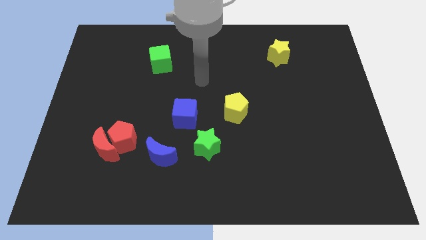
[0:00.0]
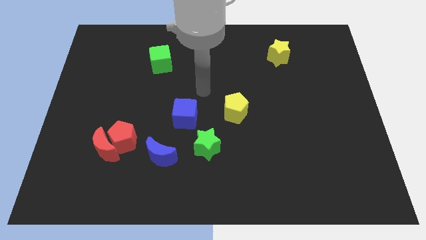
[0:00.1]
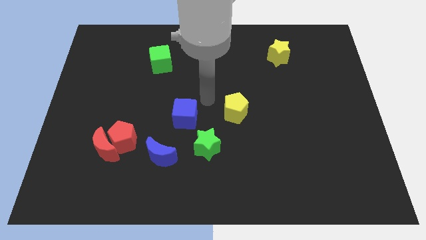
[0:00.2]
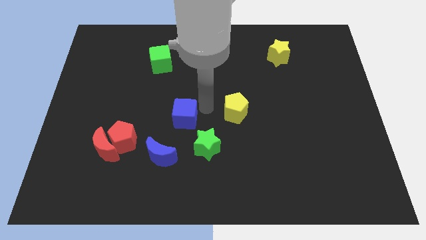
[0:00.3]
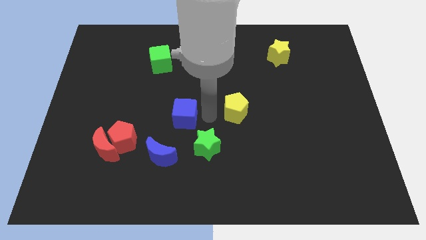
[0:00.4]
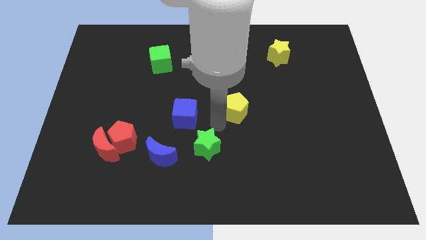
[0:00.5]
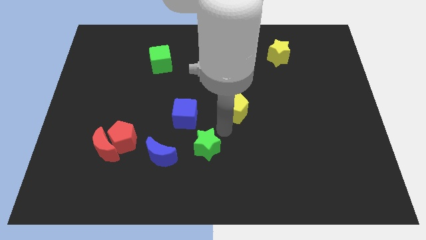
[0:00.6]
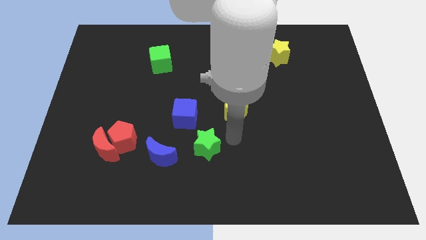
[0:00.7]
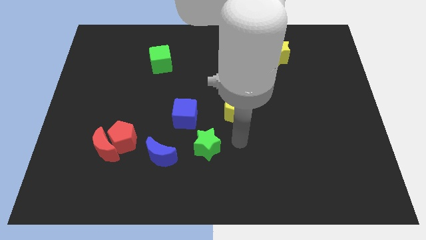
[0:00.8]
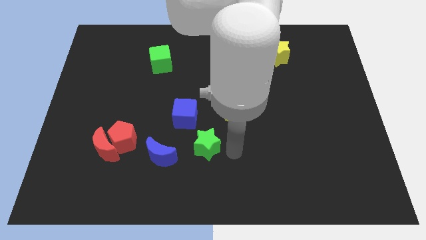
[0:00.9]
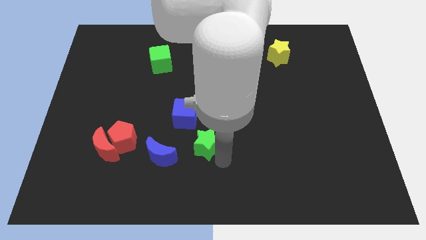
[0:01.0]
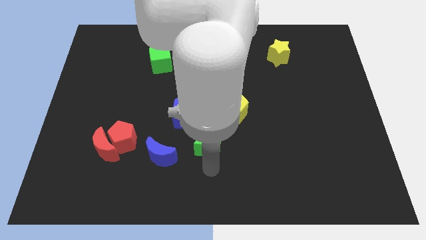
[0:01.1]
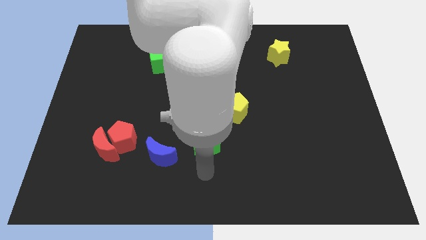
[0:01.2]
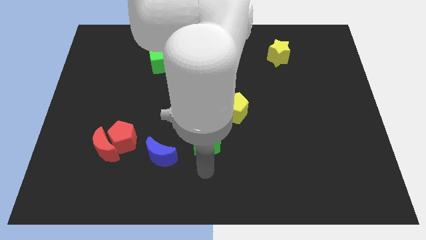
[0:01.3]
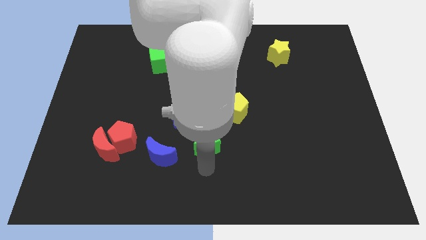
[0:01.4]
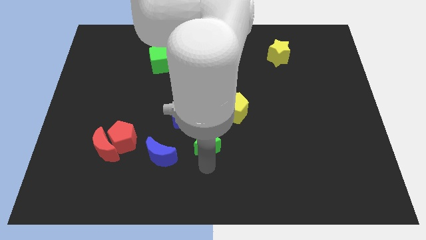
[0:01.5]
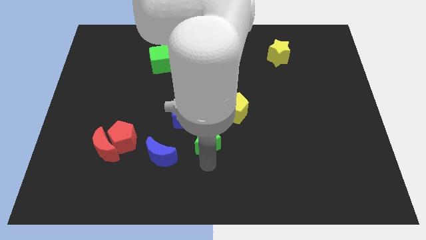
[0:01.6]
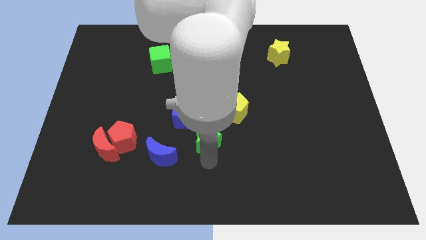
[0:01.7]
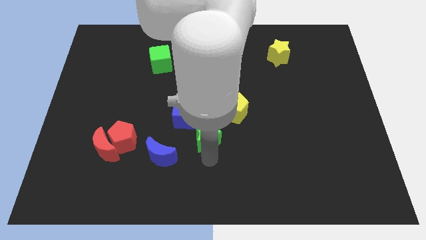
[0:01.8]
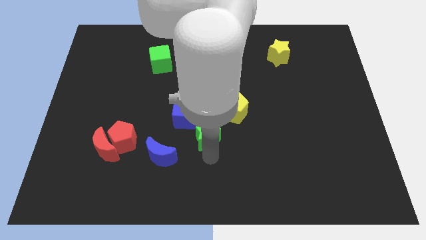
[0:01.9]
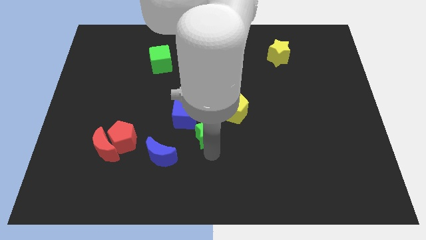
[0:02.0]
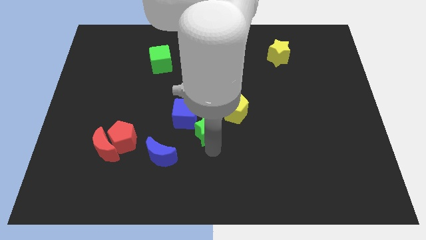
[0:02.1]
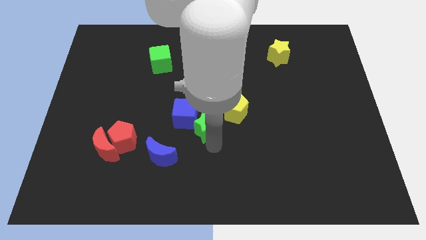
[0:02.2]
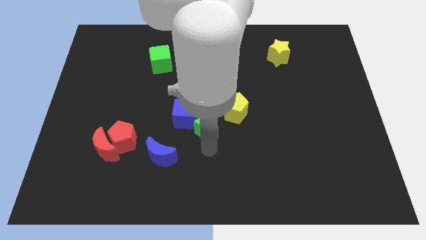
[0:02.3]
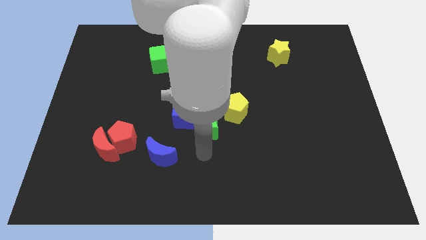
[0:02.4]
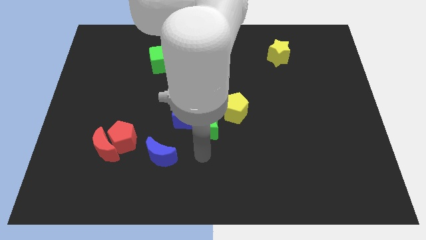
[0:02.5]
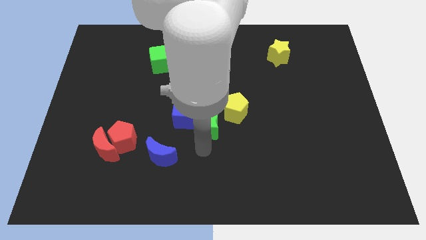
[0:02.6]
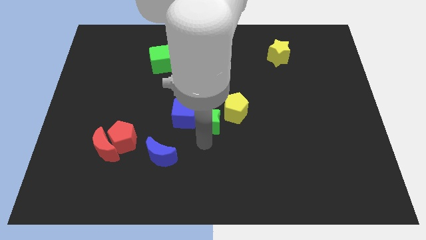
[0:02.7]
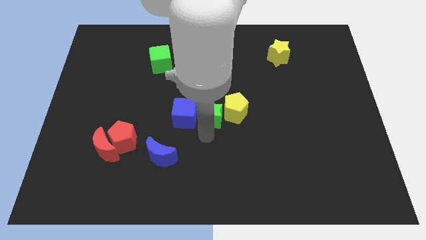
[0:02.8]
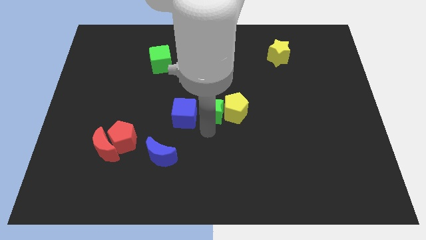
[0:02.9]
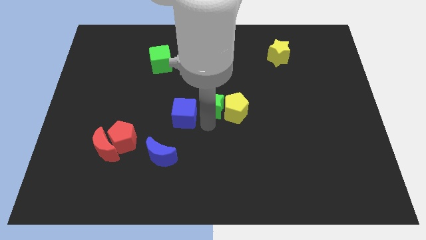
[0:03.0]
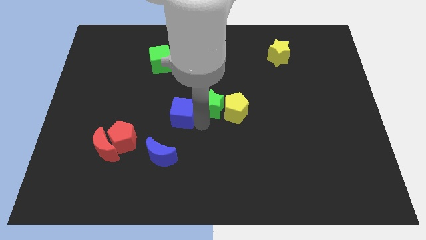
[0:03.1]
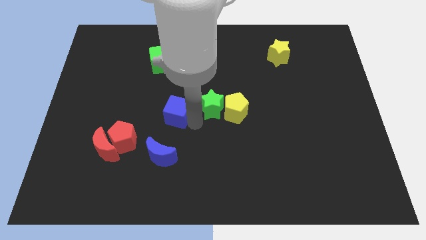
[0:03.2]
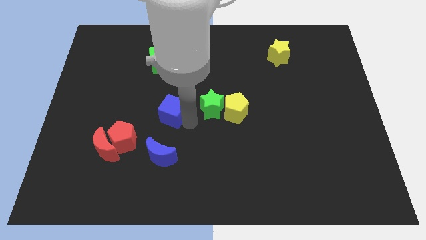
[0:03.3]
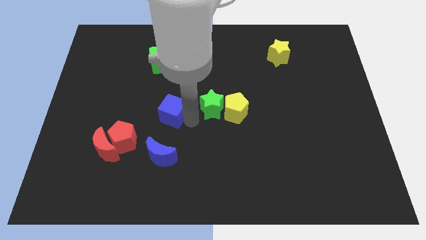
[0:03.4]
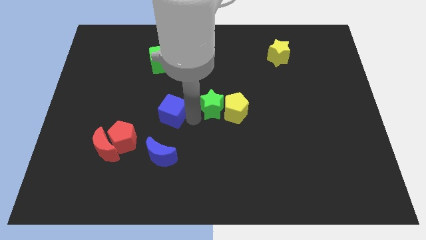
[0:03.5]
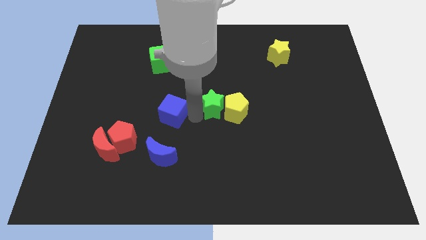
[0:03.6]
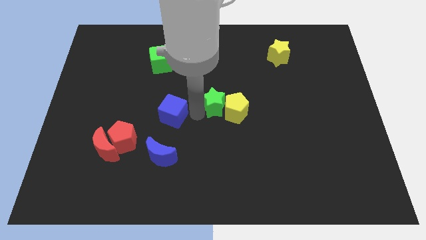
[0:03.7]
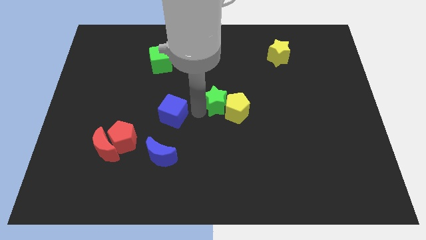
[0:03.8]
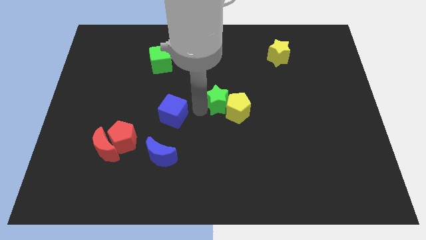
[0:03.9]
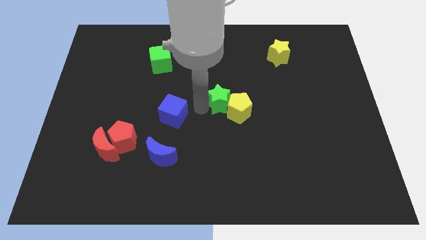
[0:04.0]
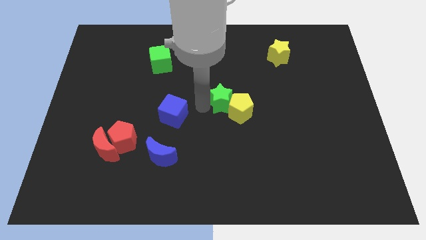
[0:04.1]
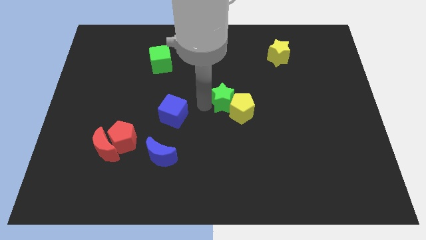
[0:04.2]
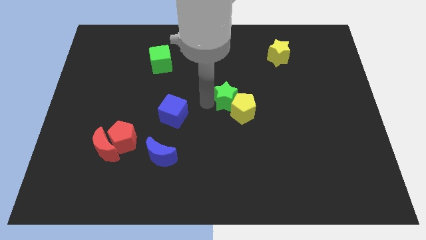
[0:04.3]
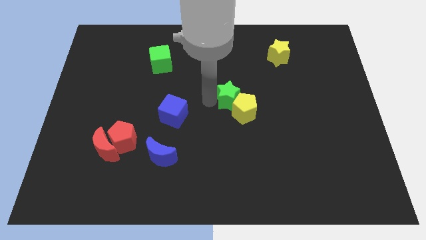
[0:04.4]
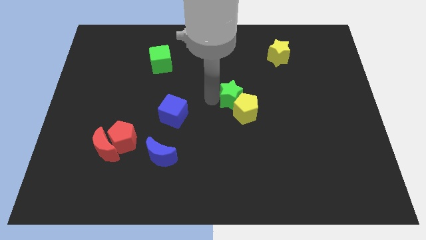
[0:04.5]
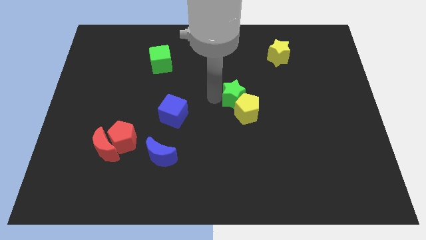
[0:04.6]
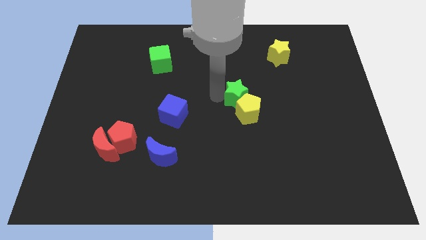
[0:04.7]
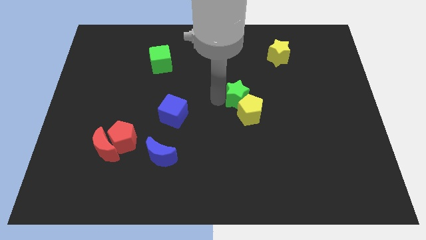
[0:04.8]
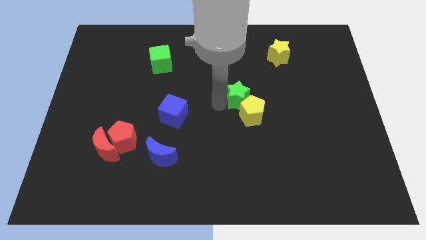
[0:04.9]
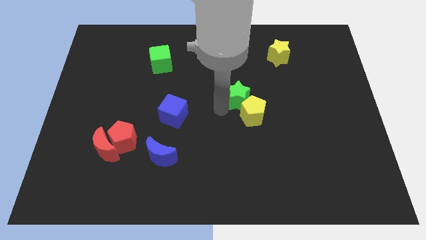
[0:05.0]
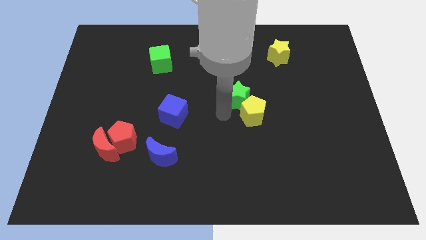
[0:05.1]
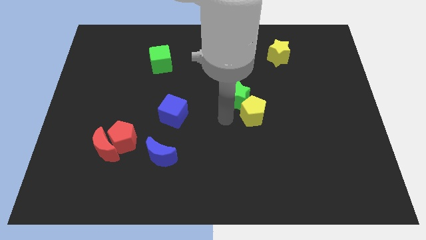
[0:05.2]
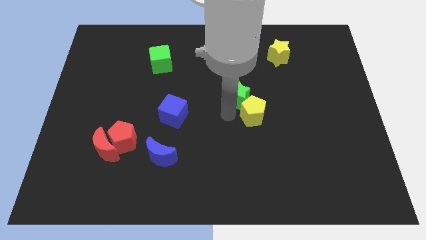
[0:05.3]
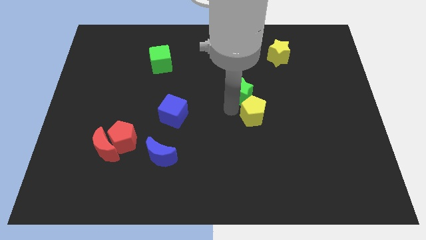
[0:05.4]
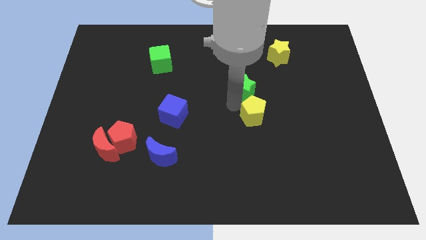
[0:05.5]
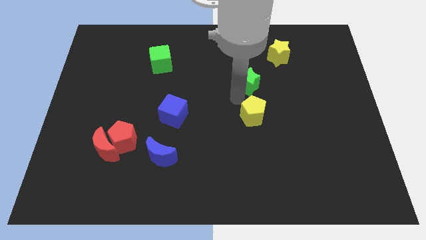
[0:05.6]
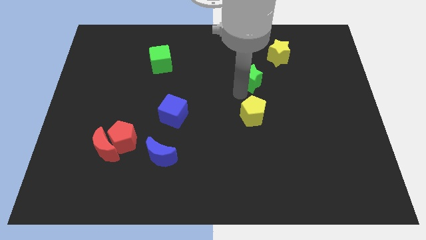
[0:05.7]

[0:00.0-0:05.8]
put the green star to the bottom left of the yellow star

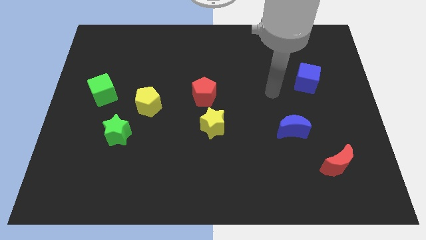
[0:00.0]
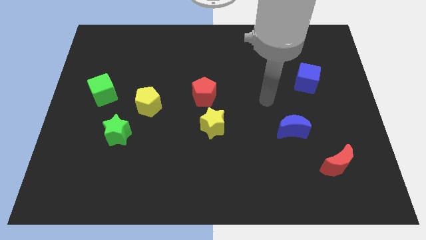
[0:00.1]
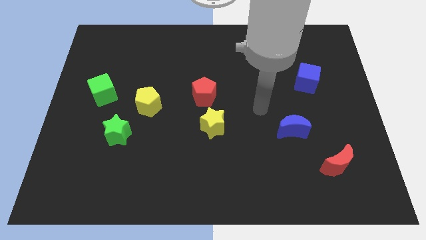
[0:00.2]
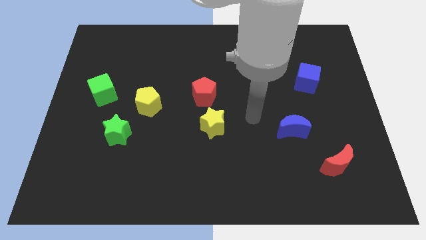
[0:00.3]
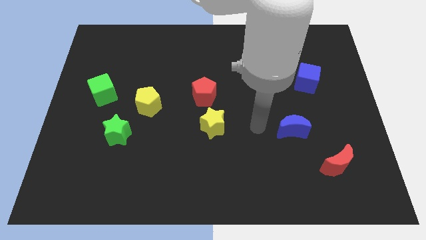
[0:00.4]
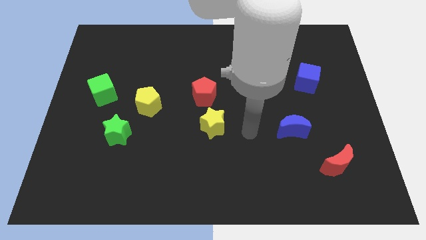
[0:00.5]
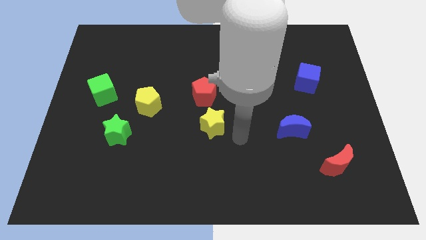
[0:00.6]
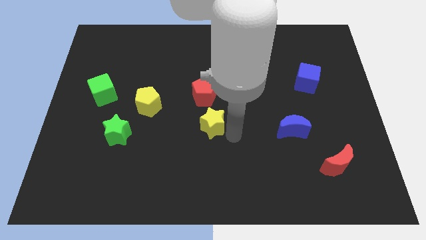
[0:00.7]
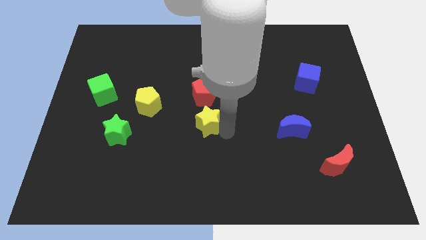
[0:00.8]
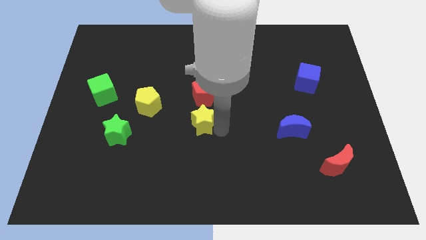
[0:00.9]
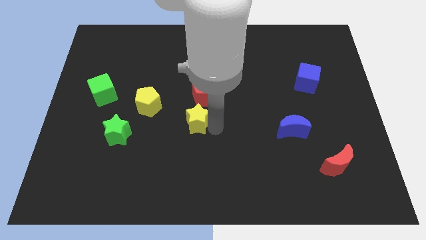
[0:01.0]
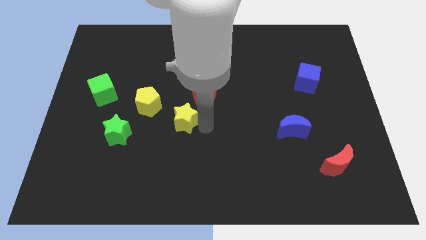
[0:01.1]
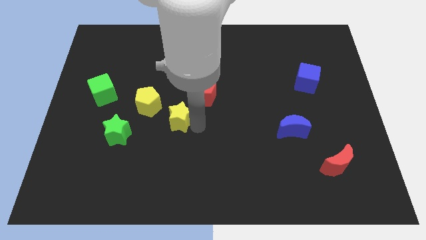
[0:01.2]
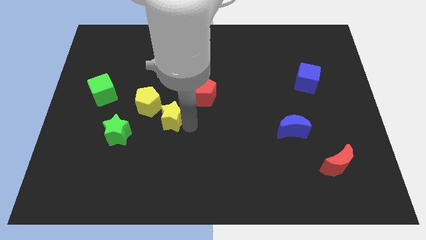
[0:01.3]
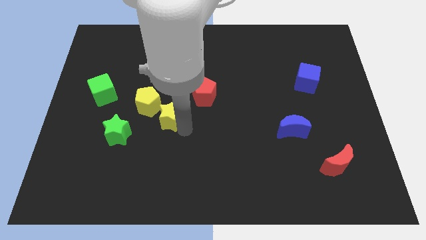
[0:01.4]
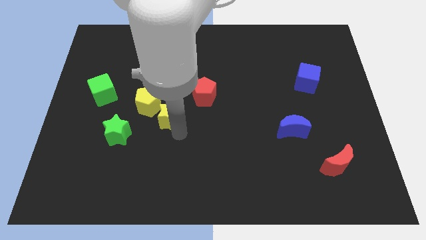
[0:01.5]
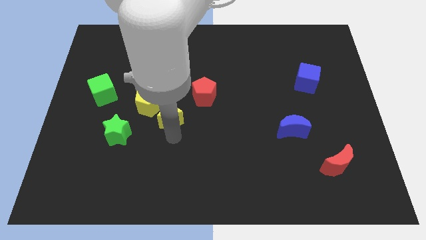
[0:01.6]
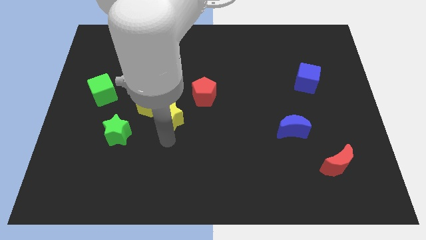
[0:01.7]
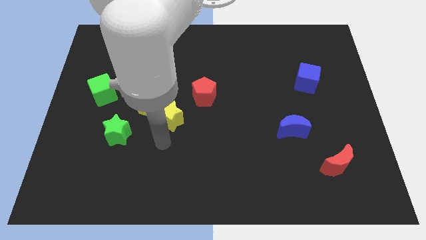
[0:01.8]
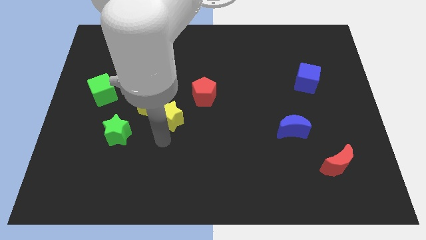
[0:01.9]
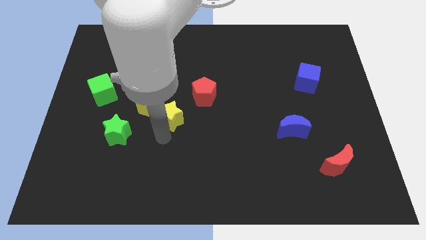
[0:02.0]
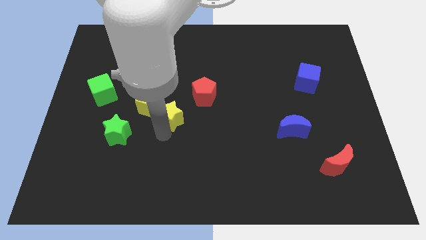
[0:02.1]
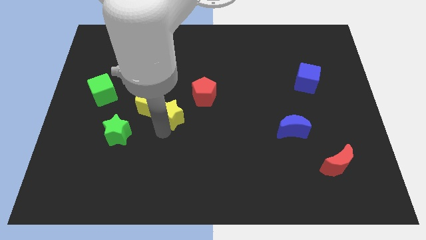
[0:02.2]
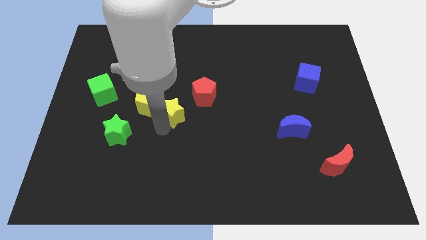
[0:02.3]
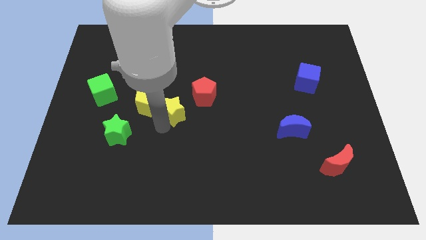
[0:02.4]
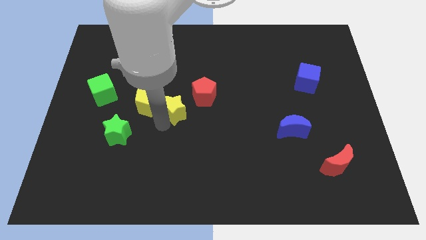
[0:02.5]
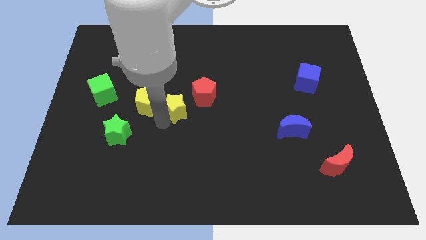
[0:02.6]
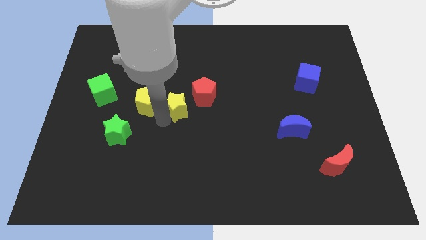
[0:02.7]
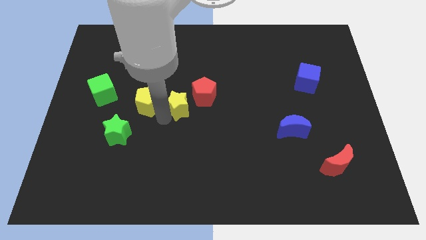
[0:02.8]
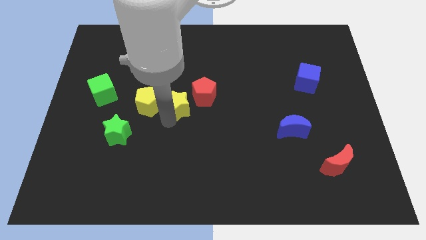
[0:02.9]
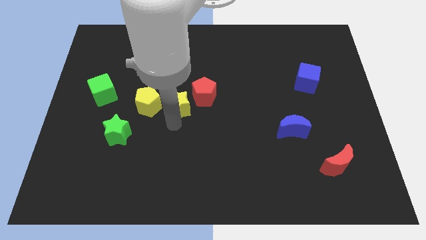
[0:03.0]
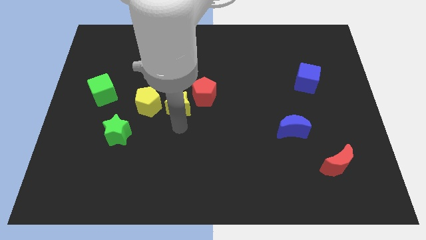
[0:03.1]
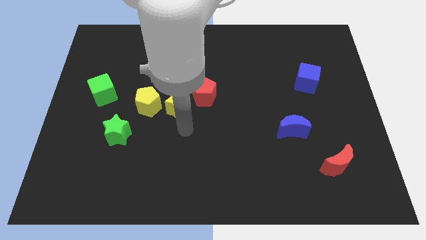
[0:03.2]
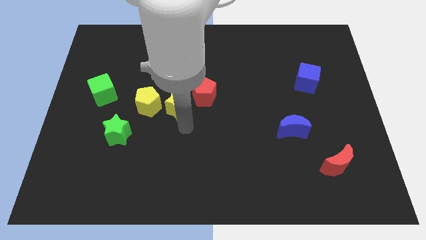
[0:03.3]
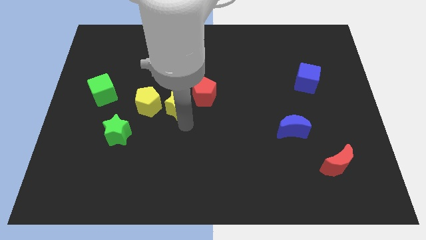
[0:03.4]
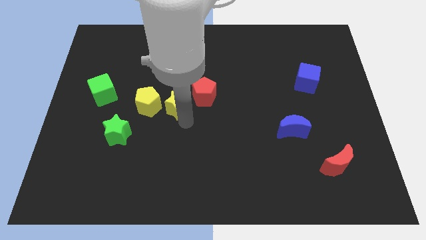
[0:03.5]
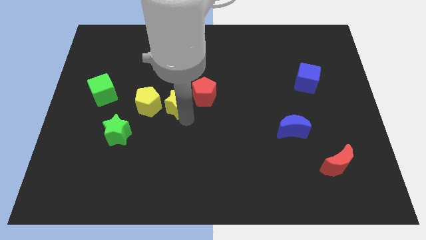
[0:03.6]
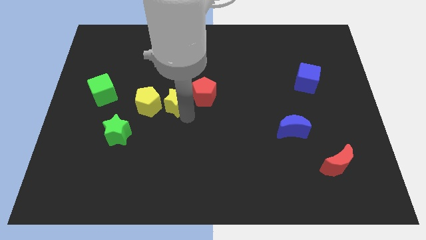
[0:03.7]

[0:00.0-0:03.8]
slide the yellow star diagonally up and to the right of the yellow pentagon
